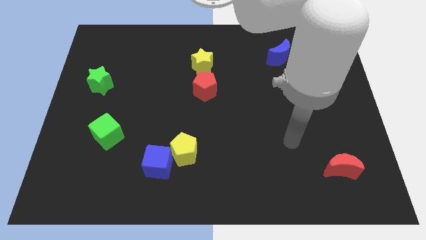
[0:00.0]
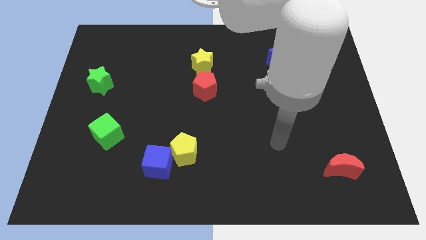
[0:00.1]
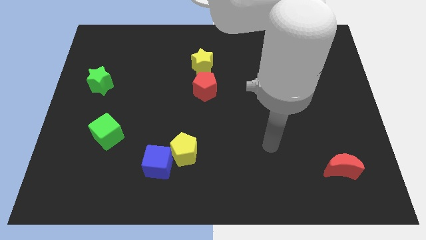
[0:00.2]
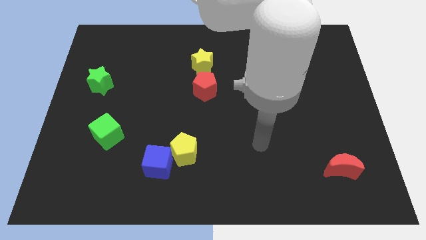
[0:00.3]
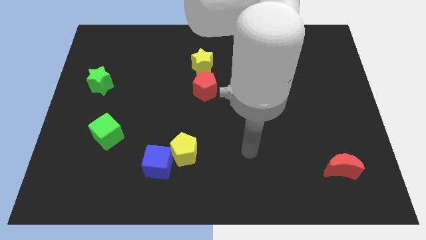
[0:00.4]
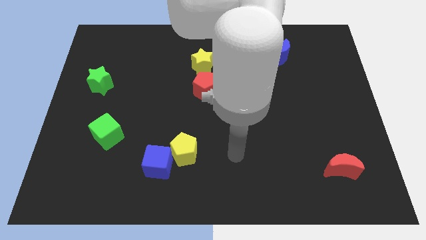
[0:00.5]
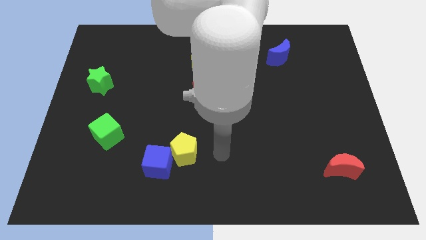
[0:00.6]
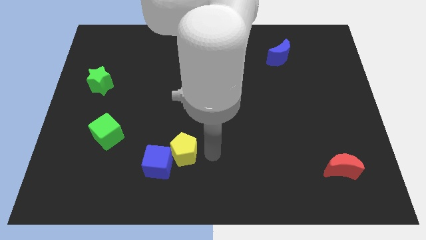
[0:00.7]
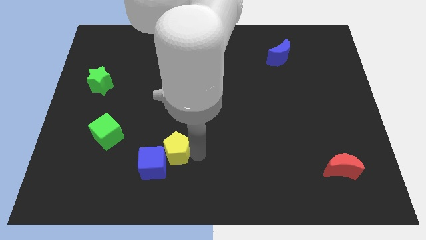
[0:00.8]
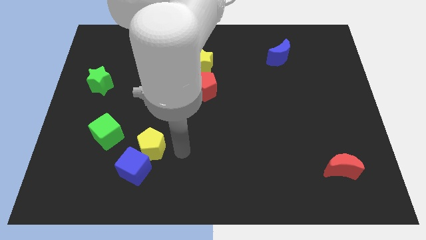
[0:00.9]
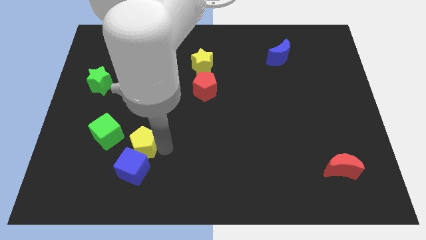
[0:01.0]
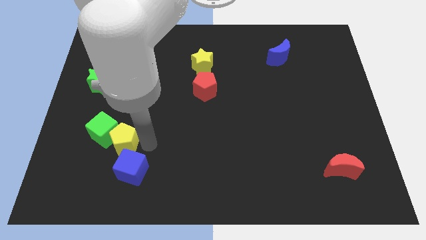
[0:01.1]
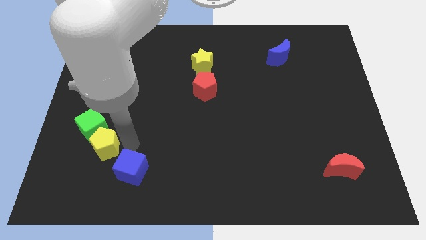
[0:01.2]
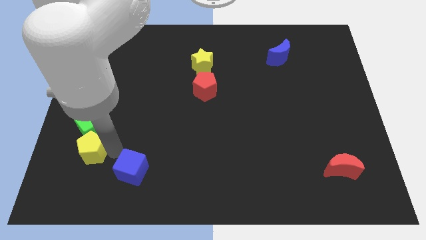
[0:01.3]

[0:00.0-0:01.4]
separate the blue cube from the yellow pentagon

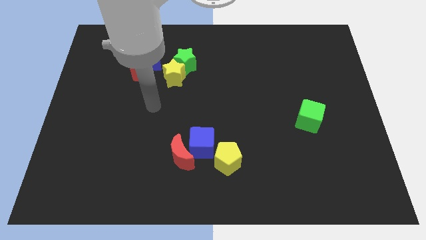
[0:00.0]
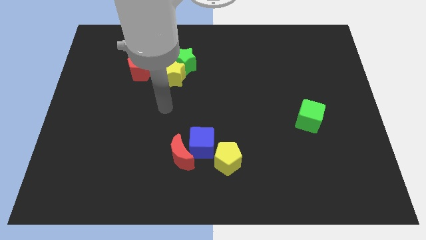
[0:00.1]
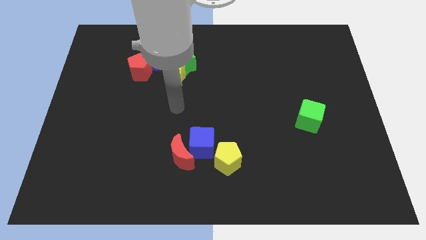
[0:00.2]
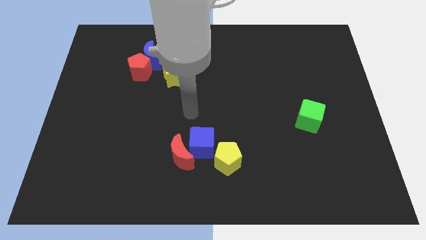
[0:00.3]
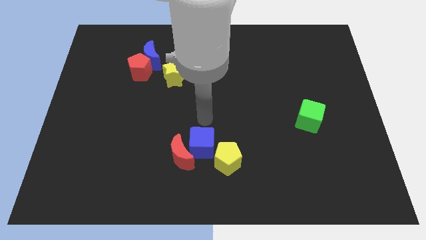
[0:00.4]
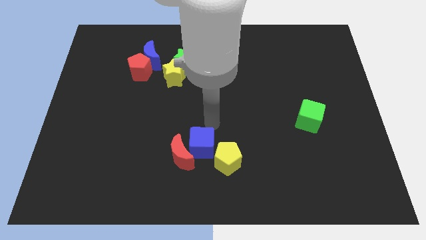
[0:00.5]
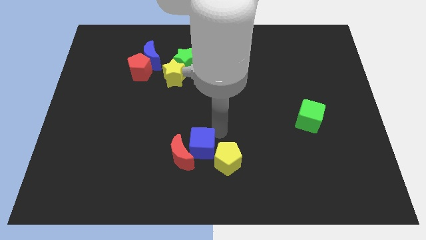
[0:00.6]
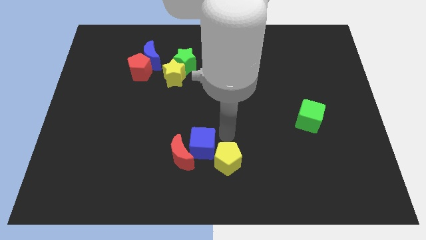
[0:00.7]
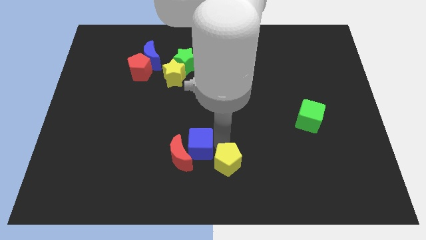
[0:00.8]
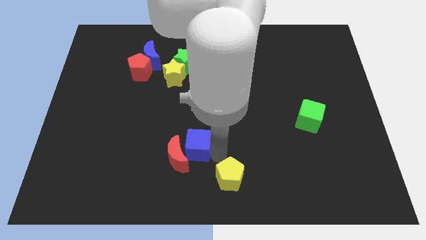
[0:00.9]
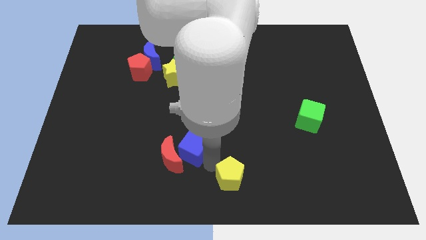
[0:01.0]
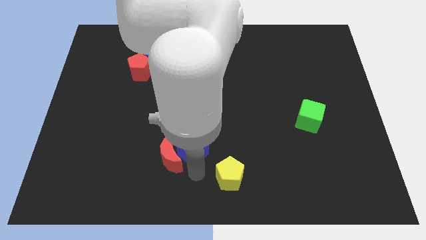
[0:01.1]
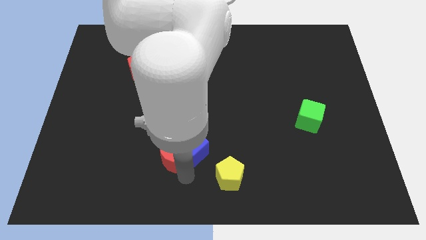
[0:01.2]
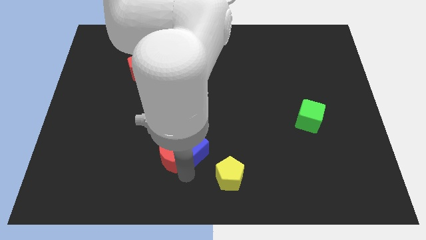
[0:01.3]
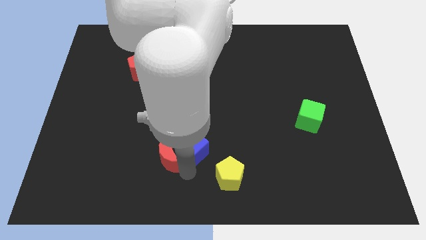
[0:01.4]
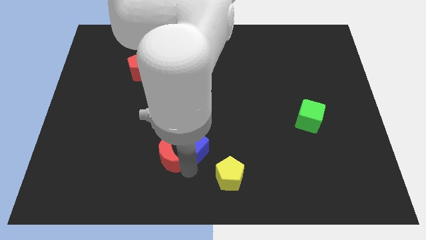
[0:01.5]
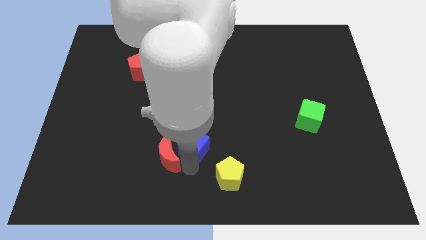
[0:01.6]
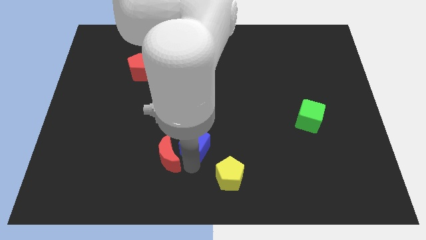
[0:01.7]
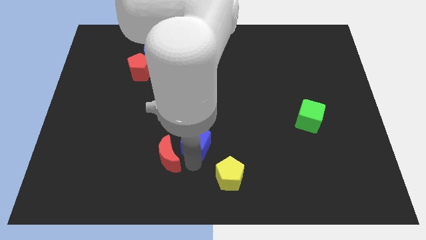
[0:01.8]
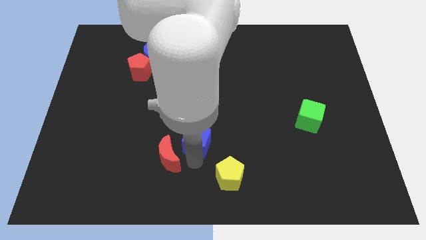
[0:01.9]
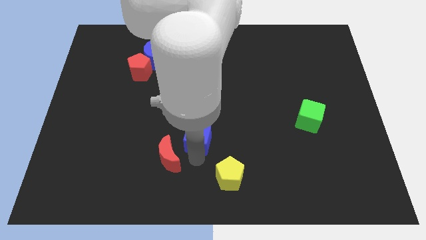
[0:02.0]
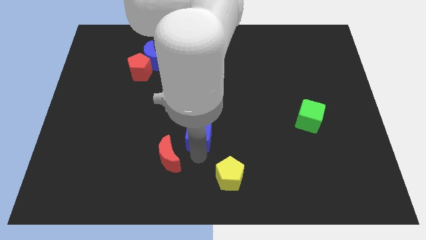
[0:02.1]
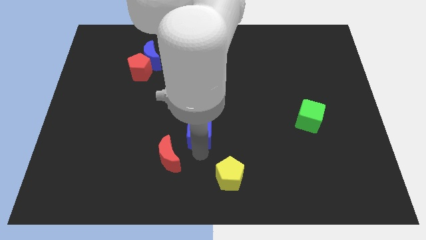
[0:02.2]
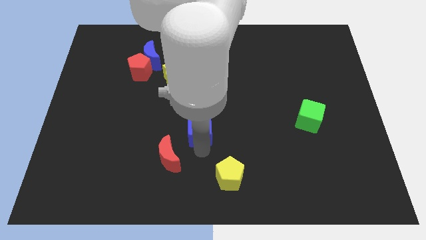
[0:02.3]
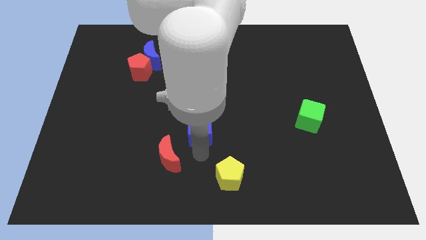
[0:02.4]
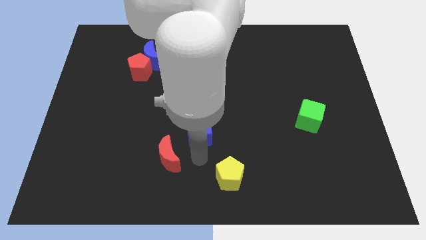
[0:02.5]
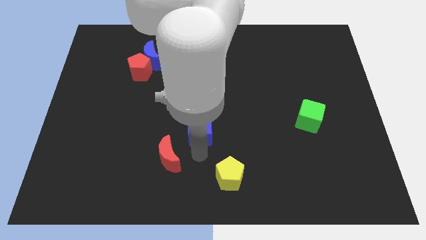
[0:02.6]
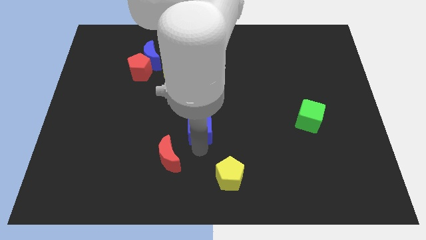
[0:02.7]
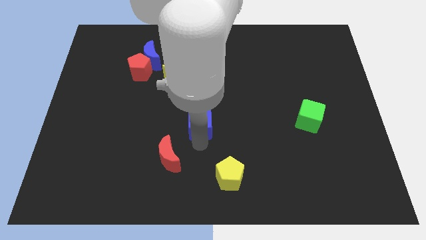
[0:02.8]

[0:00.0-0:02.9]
move the blue cube away from the red moon and yellow pentagon

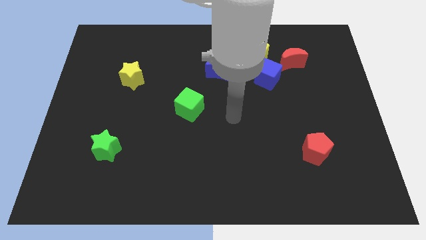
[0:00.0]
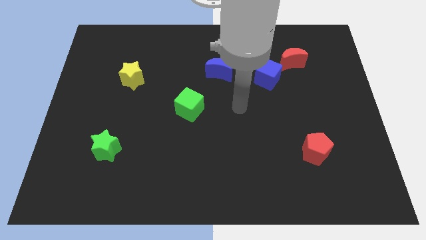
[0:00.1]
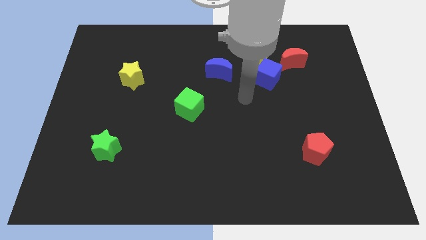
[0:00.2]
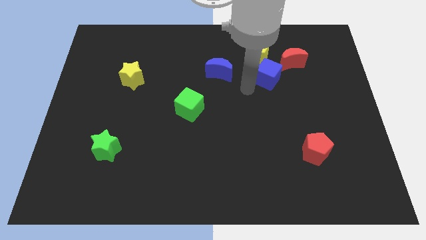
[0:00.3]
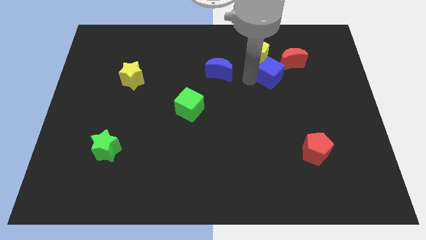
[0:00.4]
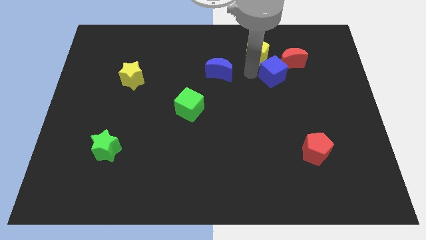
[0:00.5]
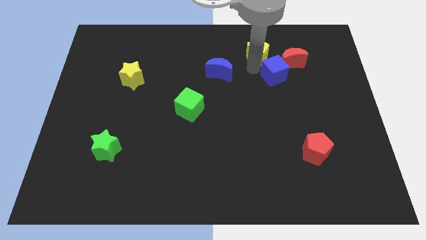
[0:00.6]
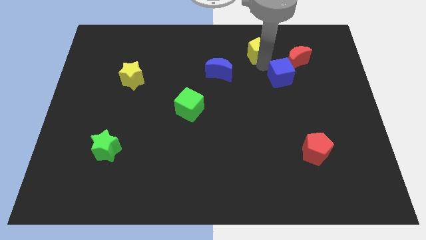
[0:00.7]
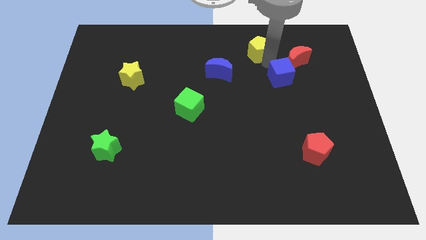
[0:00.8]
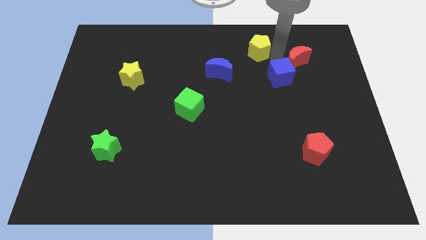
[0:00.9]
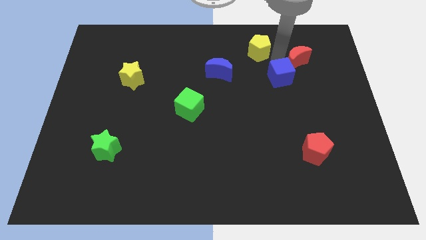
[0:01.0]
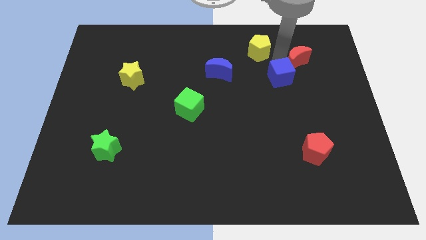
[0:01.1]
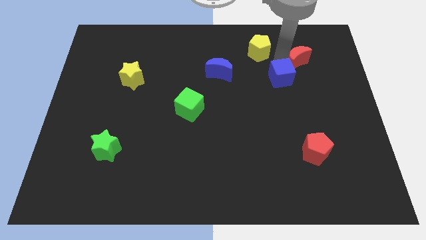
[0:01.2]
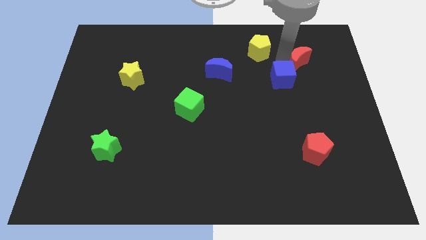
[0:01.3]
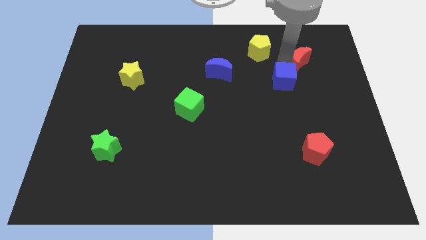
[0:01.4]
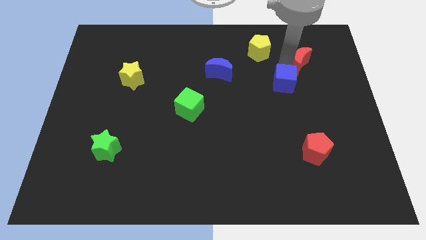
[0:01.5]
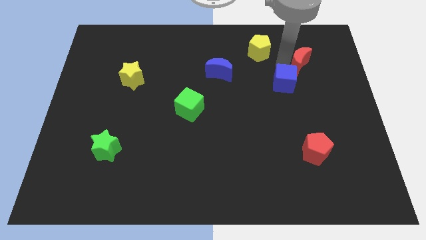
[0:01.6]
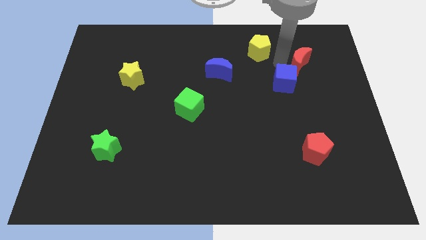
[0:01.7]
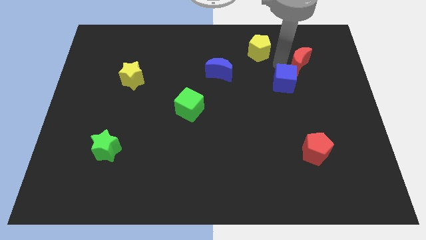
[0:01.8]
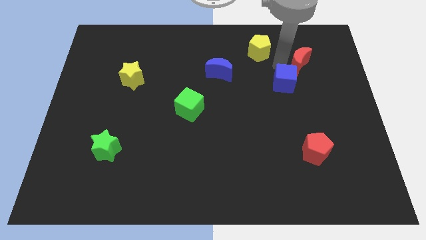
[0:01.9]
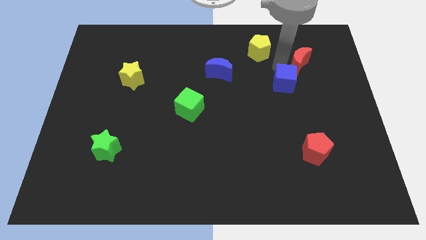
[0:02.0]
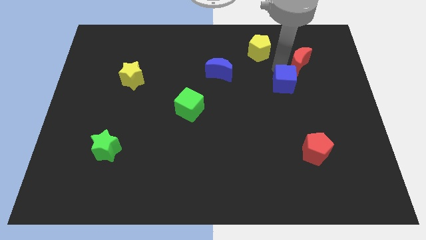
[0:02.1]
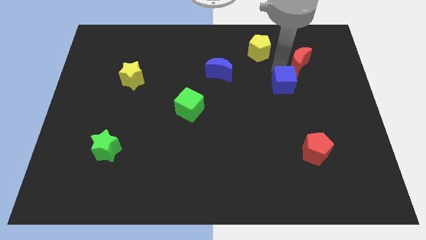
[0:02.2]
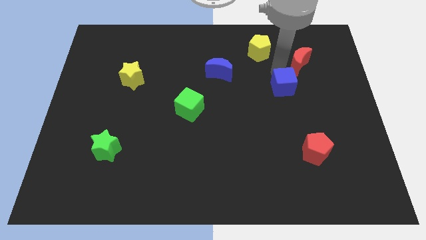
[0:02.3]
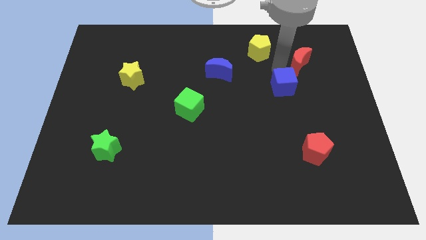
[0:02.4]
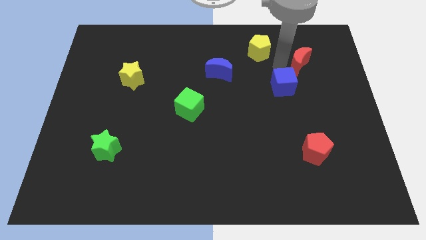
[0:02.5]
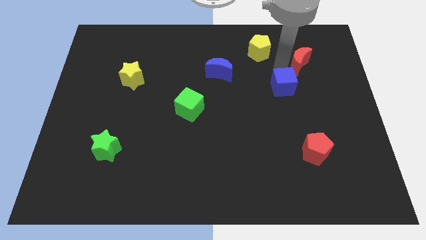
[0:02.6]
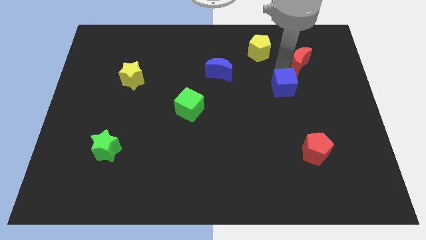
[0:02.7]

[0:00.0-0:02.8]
move the blue cube away from the yellow pentagon and red moon

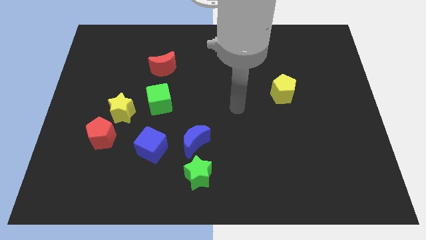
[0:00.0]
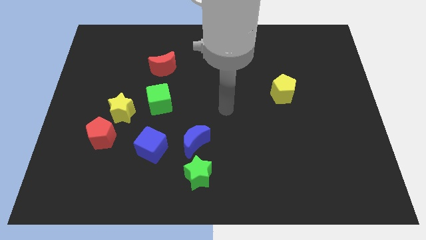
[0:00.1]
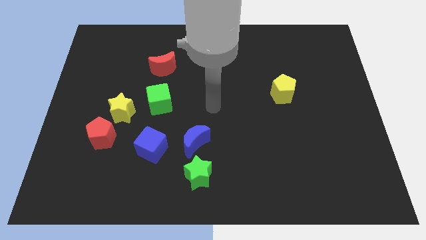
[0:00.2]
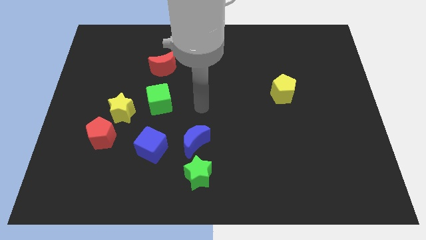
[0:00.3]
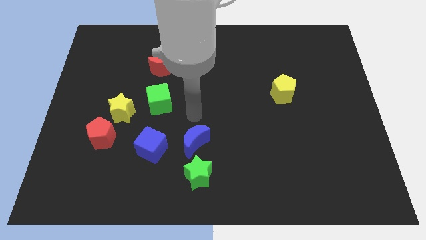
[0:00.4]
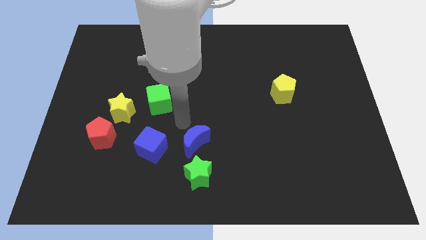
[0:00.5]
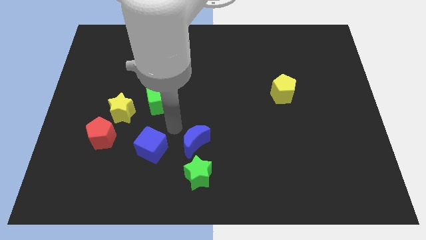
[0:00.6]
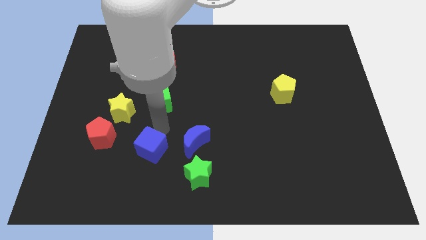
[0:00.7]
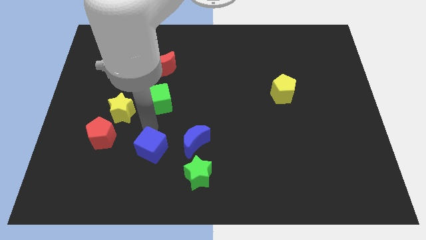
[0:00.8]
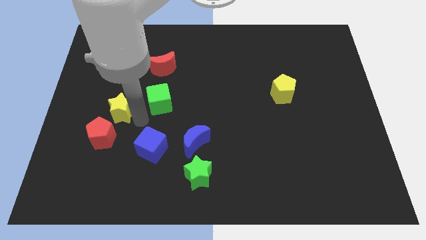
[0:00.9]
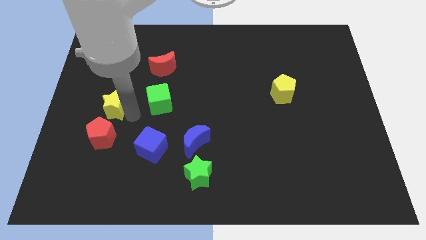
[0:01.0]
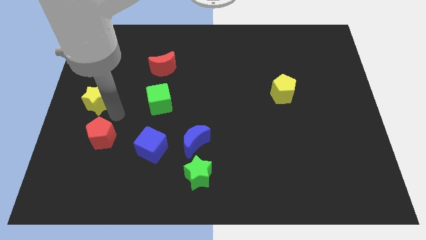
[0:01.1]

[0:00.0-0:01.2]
pull the red pentagon apart from the yellow star

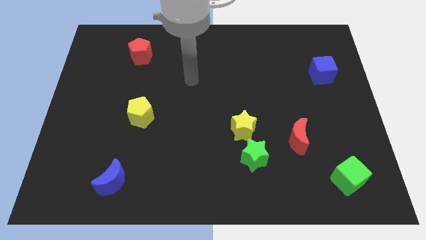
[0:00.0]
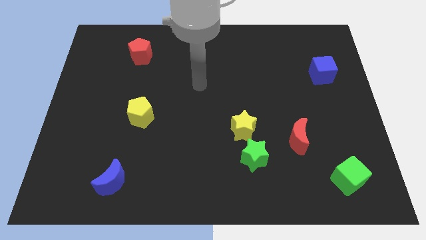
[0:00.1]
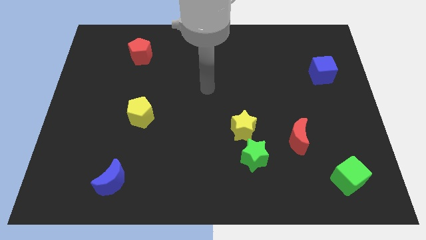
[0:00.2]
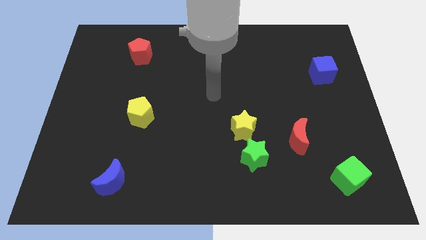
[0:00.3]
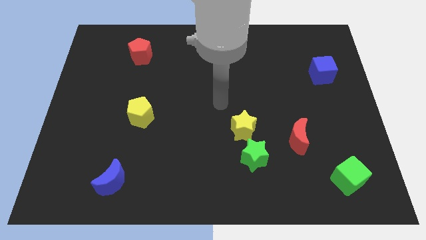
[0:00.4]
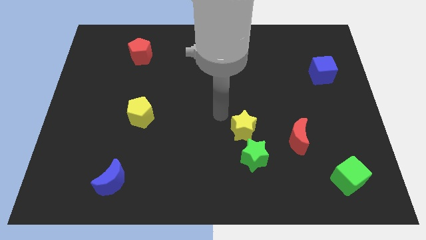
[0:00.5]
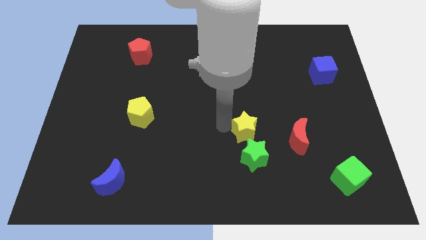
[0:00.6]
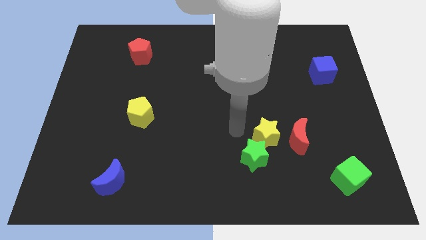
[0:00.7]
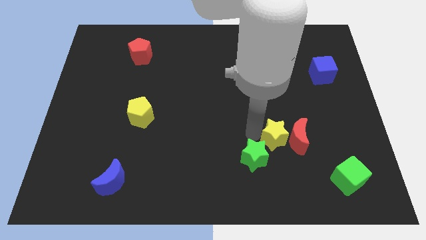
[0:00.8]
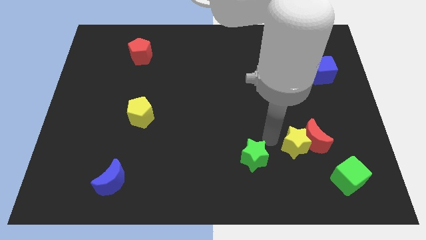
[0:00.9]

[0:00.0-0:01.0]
separate the green star from the yellow star
